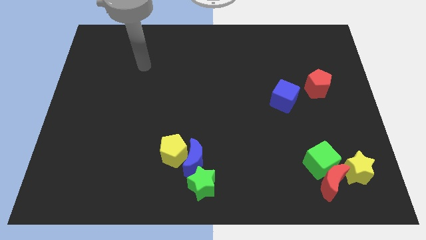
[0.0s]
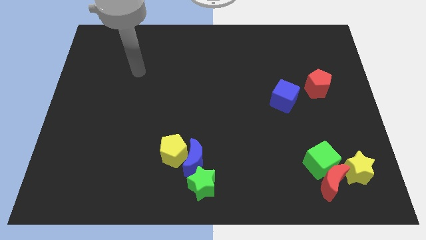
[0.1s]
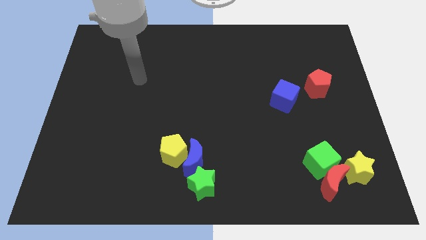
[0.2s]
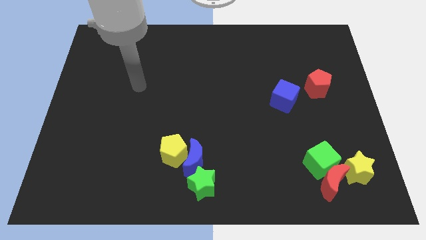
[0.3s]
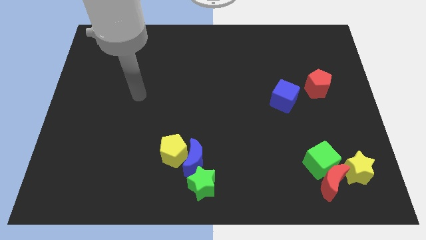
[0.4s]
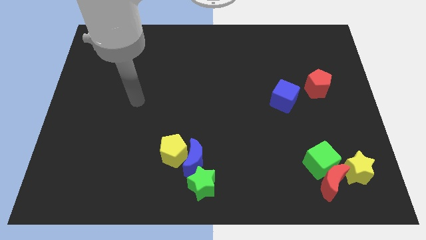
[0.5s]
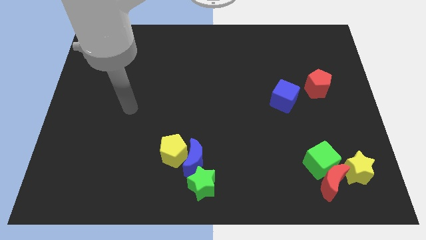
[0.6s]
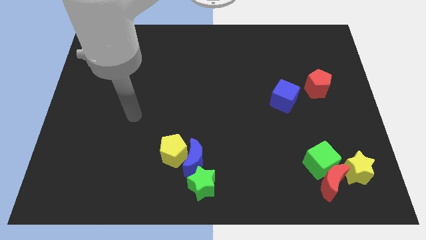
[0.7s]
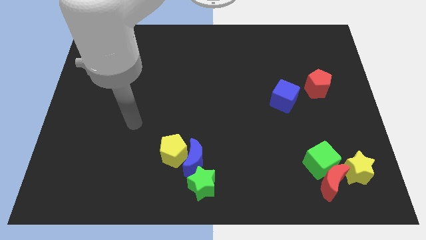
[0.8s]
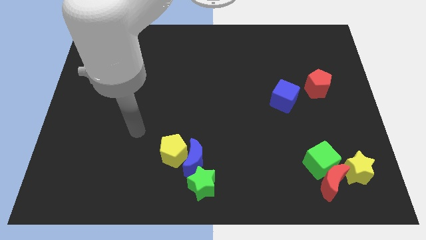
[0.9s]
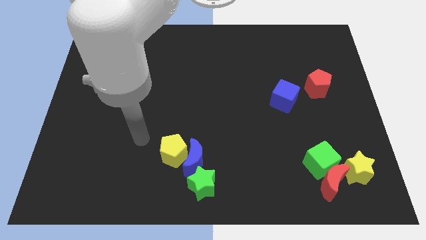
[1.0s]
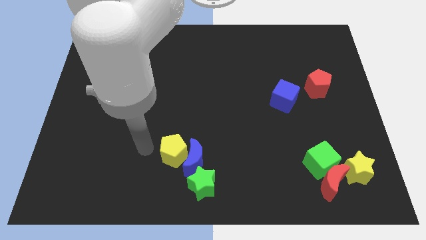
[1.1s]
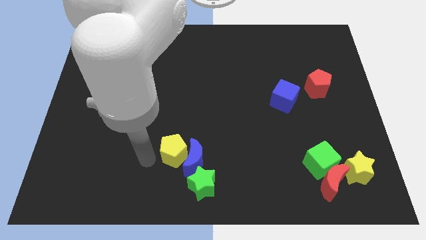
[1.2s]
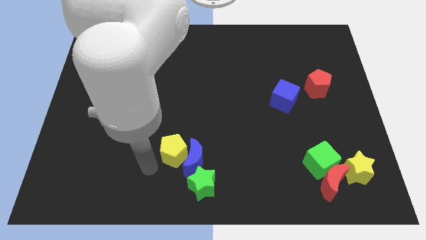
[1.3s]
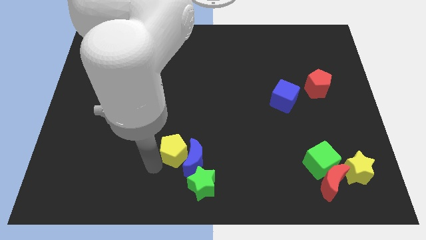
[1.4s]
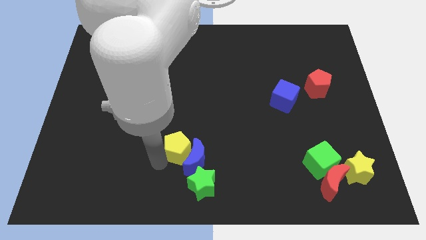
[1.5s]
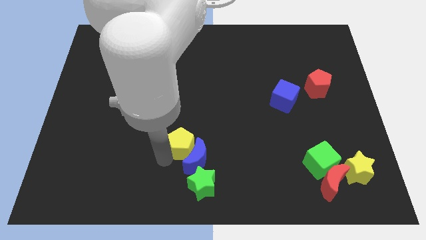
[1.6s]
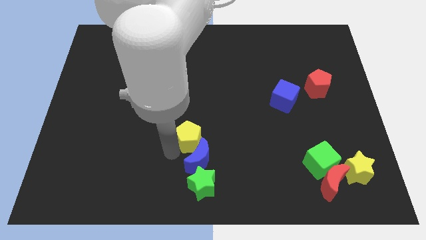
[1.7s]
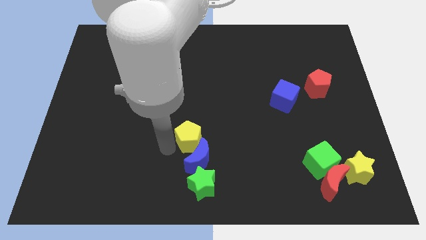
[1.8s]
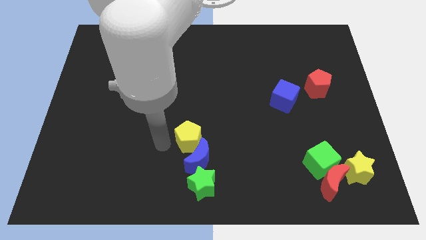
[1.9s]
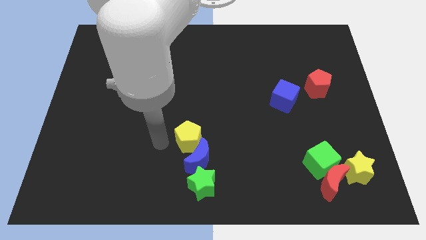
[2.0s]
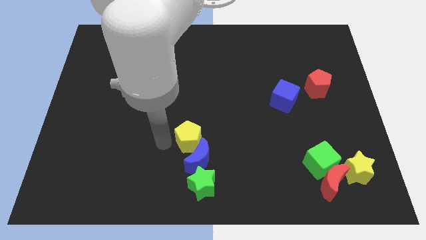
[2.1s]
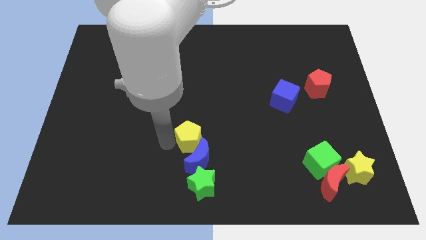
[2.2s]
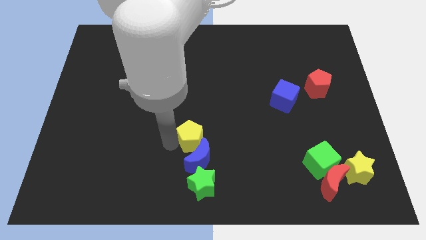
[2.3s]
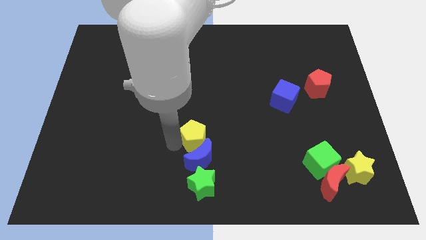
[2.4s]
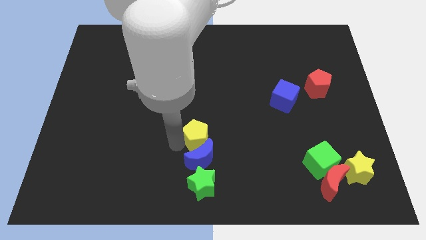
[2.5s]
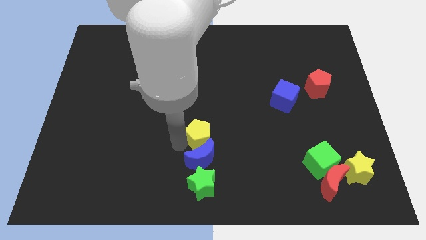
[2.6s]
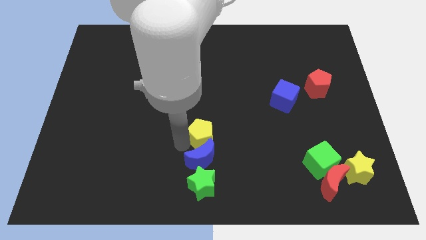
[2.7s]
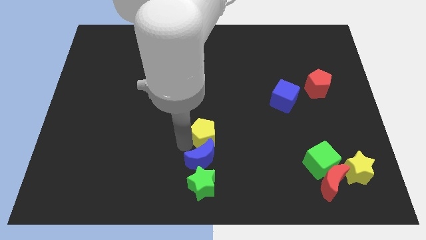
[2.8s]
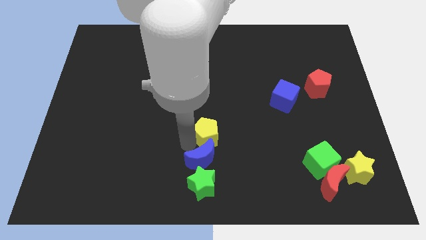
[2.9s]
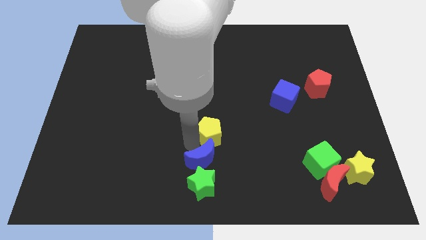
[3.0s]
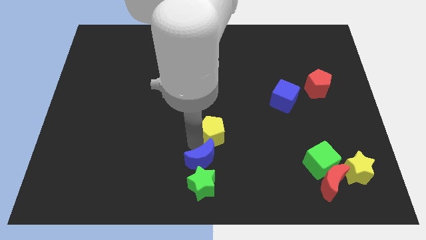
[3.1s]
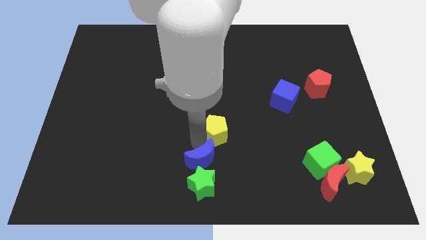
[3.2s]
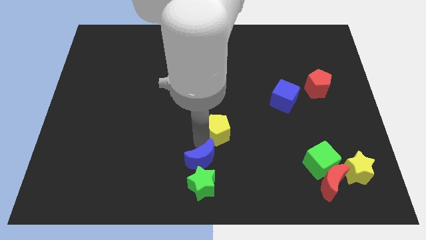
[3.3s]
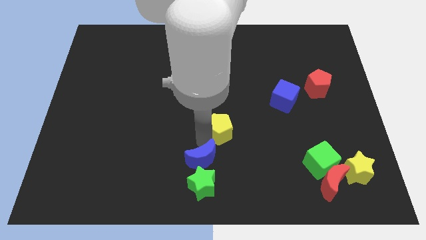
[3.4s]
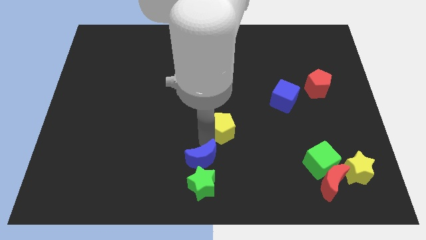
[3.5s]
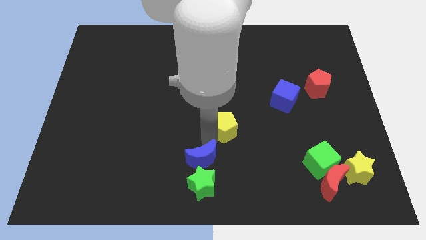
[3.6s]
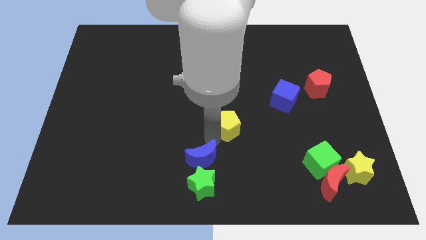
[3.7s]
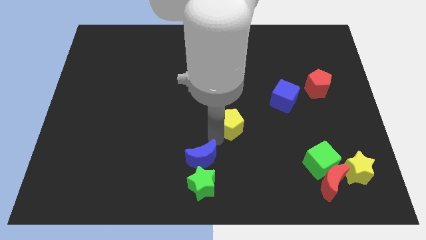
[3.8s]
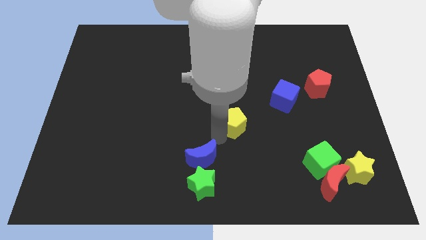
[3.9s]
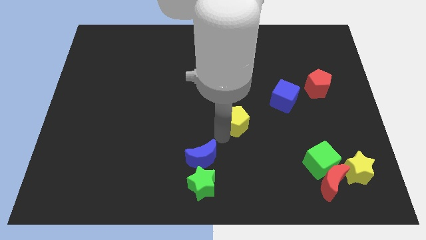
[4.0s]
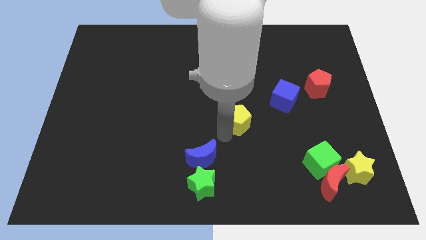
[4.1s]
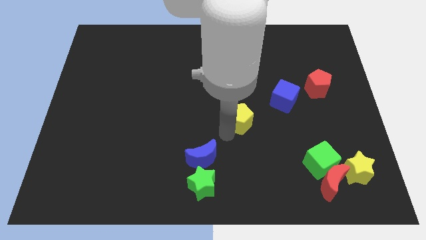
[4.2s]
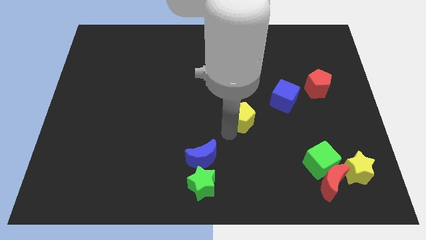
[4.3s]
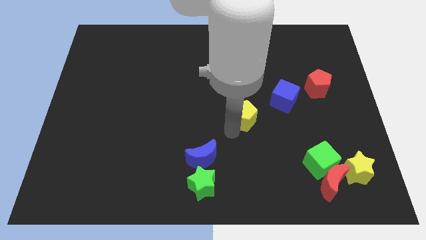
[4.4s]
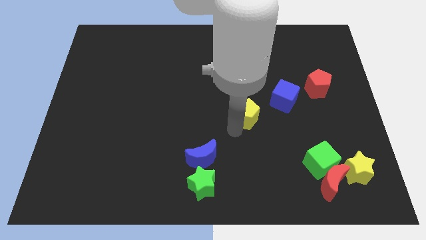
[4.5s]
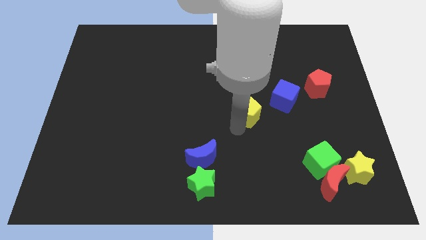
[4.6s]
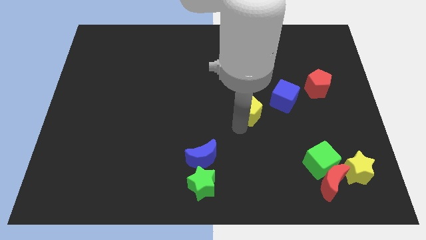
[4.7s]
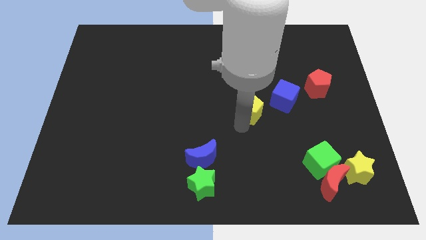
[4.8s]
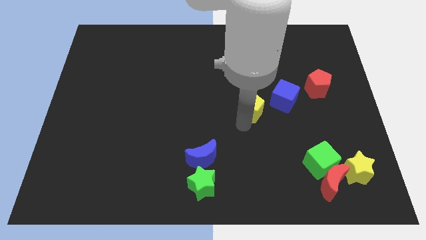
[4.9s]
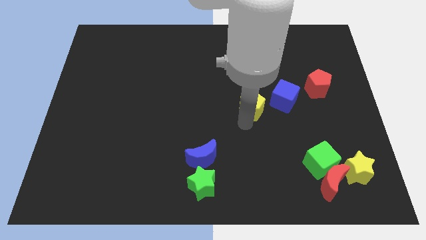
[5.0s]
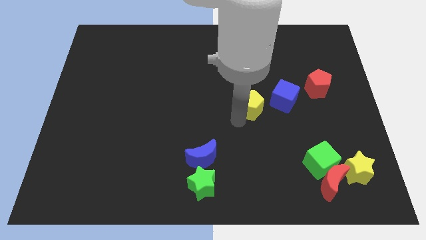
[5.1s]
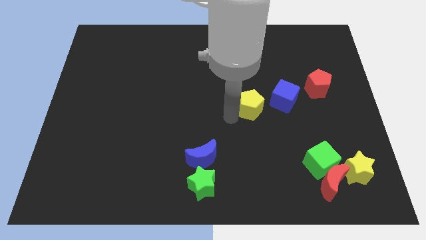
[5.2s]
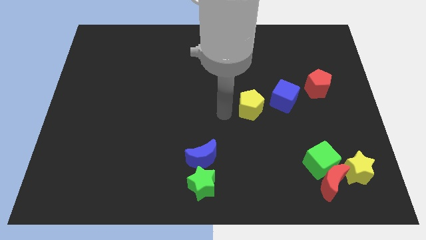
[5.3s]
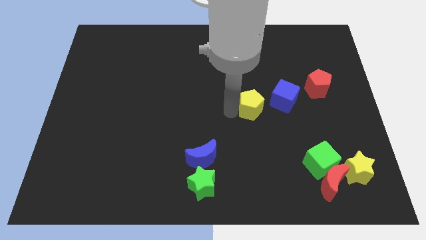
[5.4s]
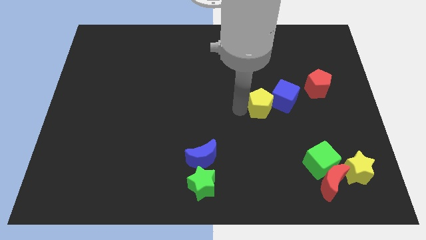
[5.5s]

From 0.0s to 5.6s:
put the yellow pentagon next to the blue cube
